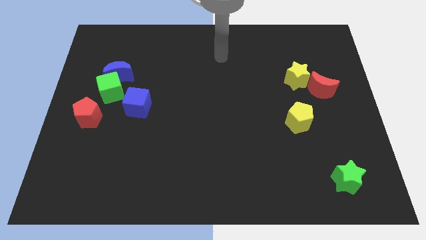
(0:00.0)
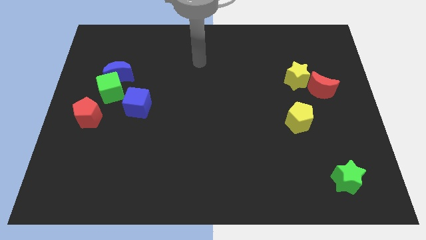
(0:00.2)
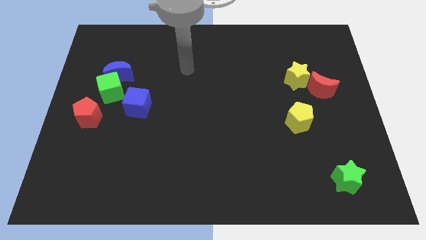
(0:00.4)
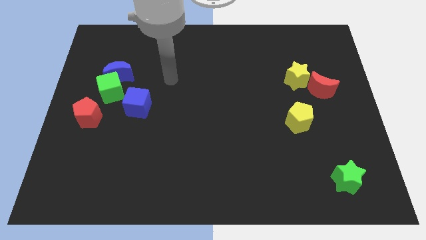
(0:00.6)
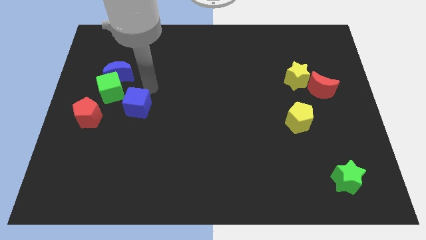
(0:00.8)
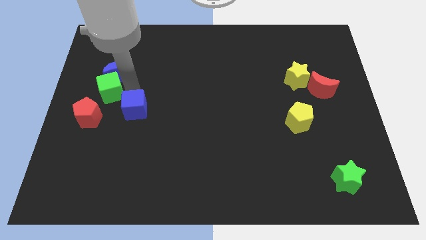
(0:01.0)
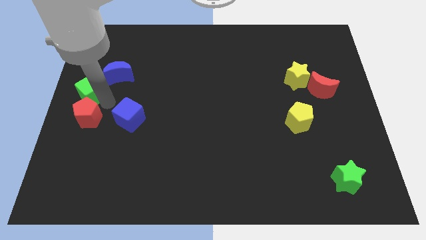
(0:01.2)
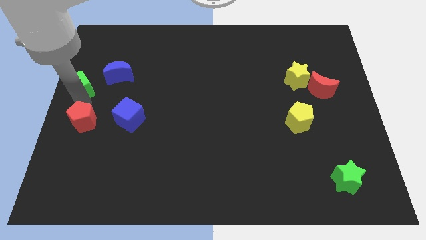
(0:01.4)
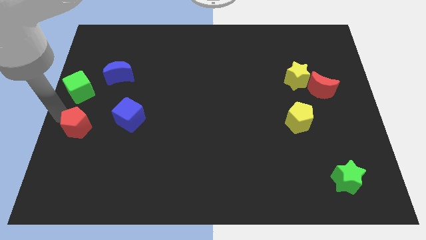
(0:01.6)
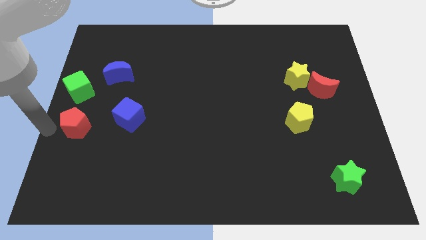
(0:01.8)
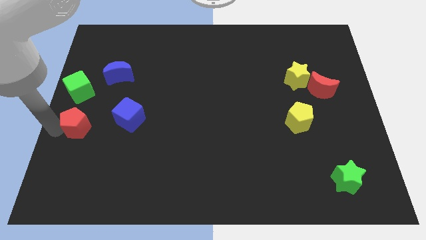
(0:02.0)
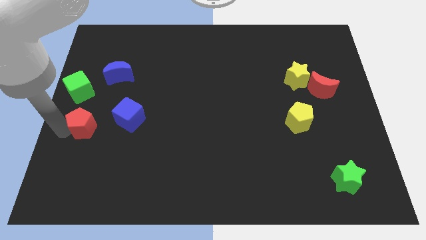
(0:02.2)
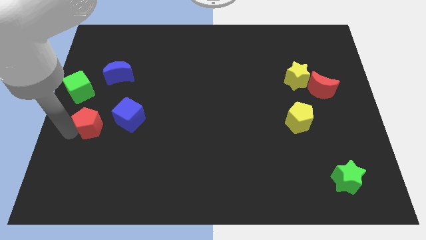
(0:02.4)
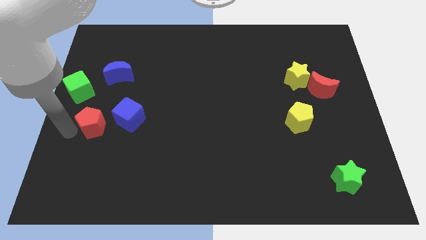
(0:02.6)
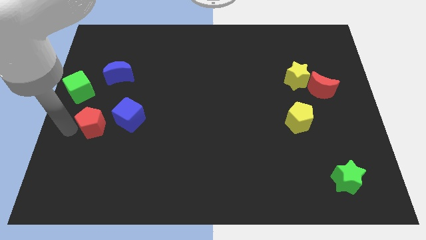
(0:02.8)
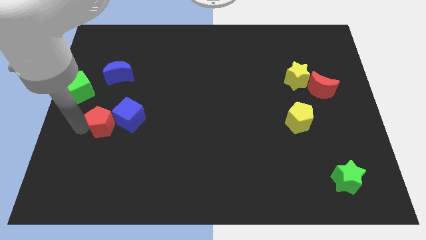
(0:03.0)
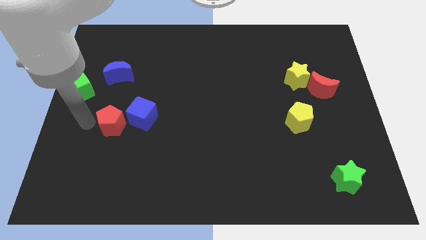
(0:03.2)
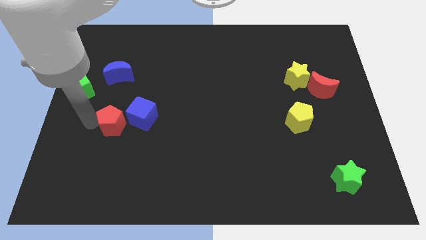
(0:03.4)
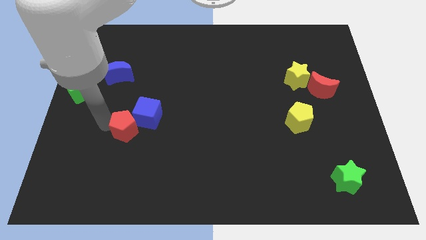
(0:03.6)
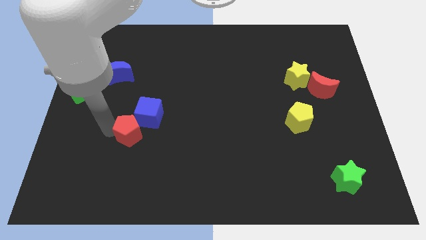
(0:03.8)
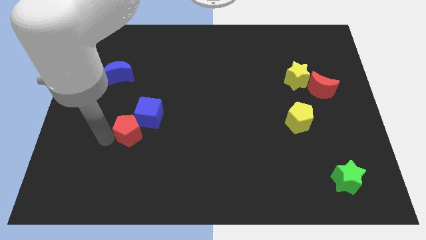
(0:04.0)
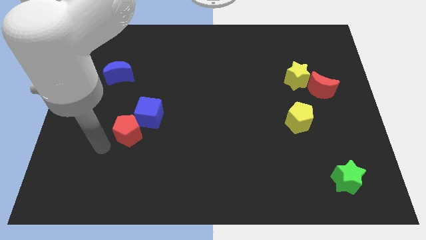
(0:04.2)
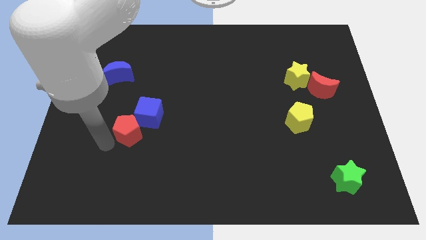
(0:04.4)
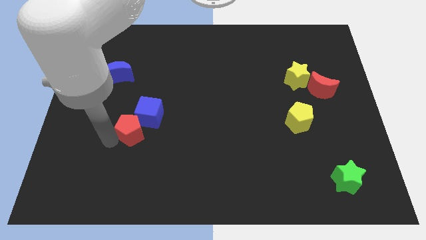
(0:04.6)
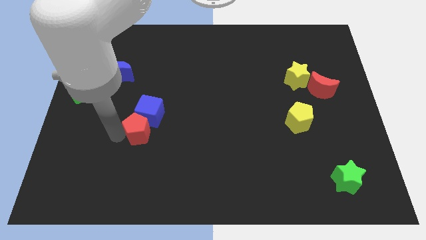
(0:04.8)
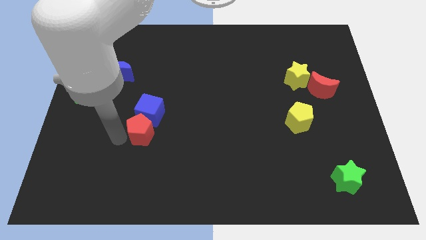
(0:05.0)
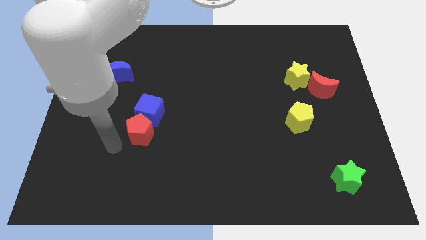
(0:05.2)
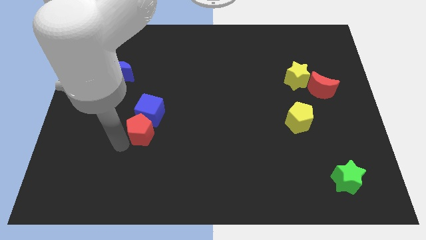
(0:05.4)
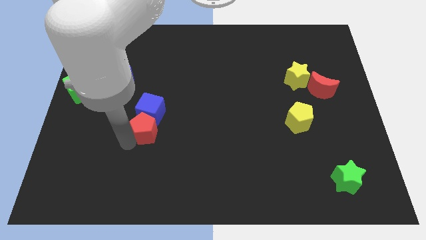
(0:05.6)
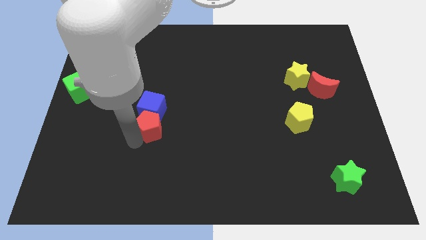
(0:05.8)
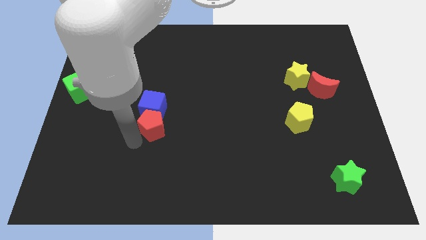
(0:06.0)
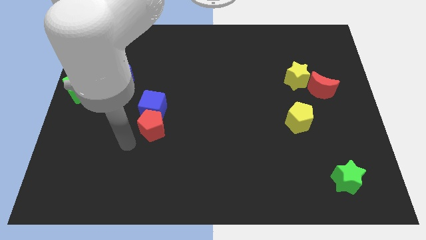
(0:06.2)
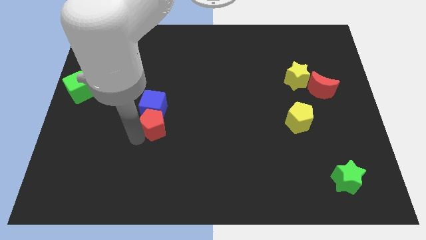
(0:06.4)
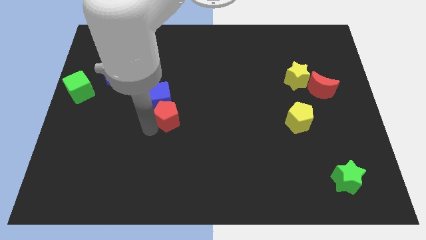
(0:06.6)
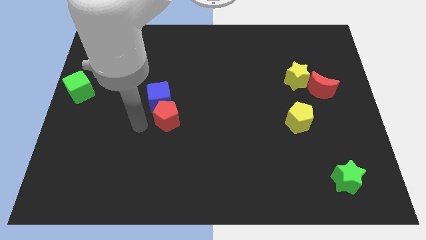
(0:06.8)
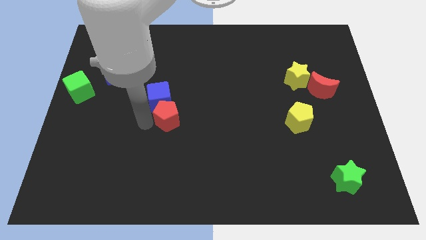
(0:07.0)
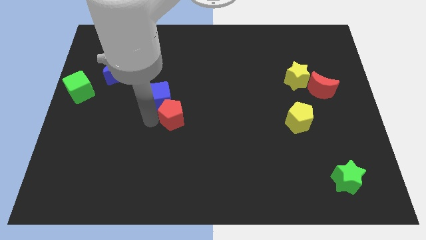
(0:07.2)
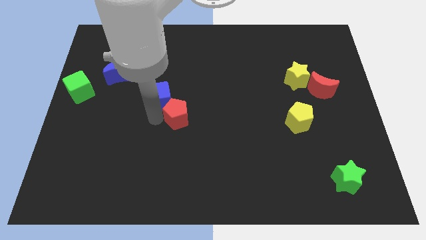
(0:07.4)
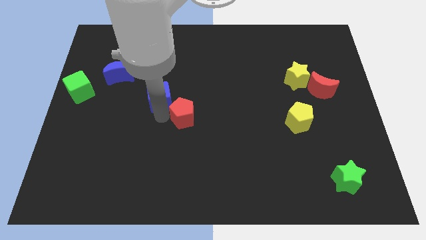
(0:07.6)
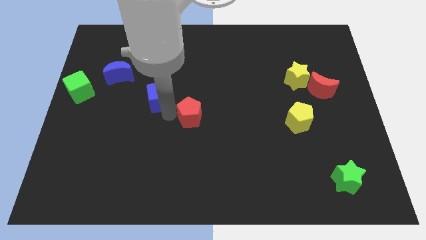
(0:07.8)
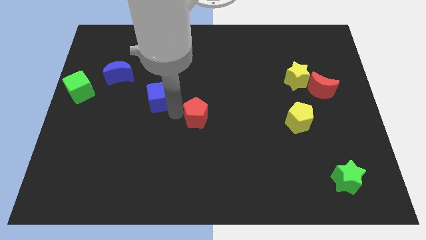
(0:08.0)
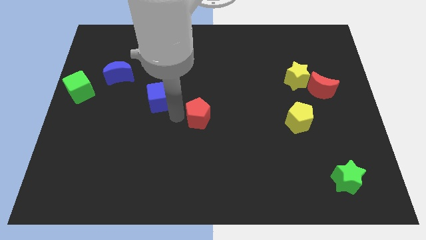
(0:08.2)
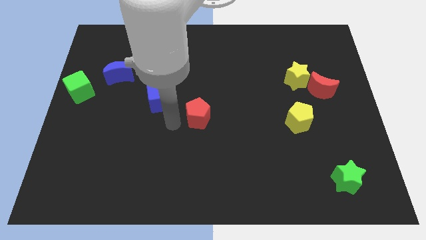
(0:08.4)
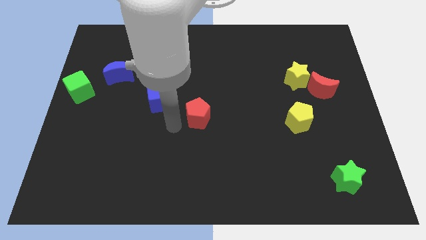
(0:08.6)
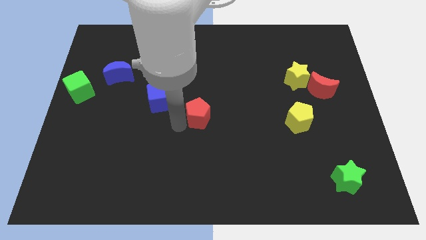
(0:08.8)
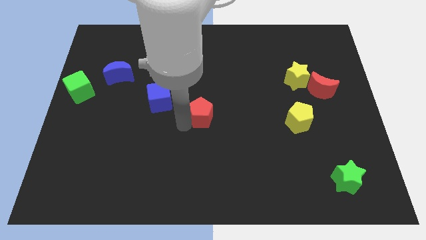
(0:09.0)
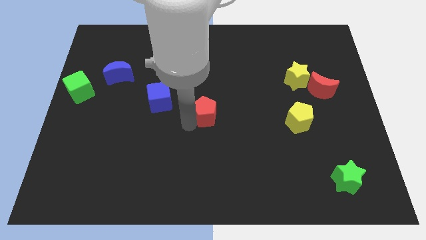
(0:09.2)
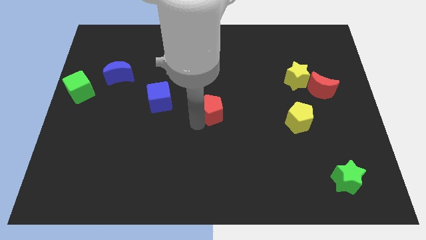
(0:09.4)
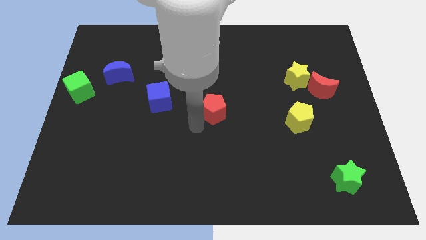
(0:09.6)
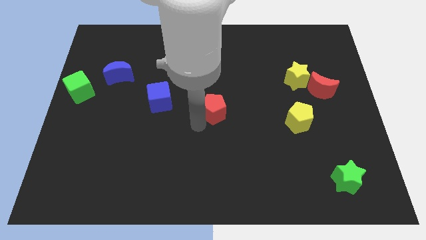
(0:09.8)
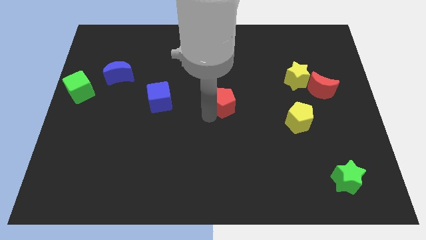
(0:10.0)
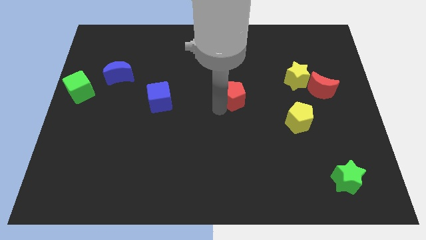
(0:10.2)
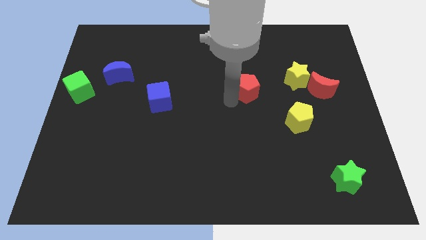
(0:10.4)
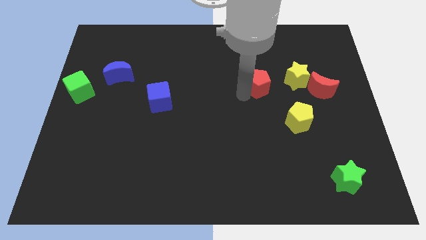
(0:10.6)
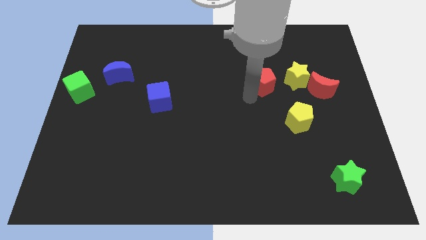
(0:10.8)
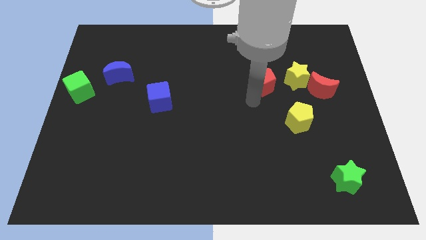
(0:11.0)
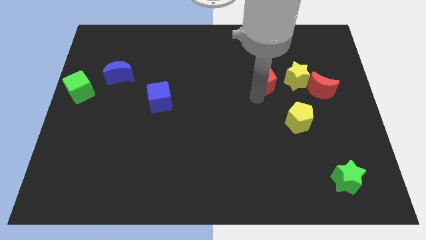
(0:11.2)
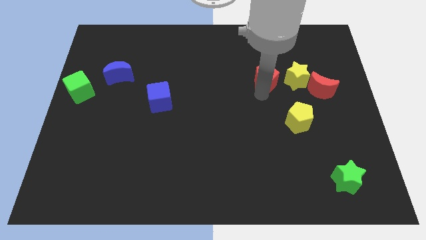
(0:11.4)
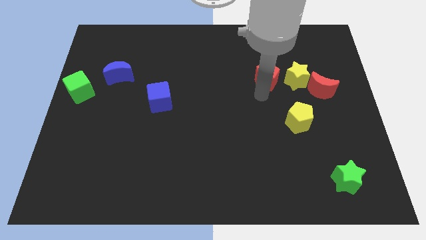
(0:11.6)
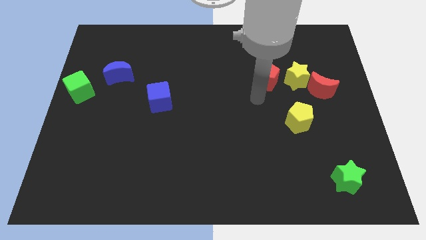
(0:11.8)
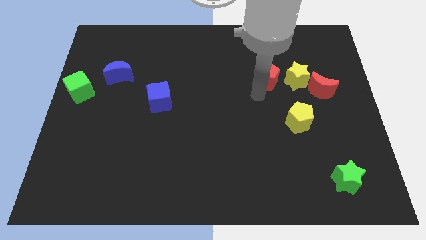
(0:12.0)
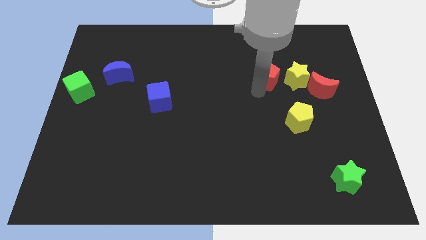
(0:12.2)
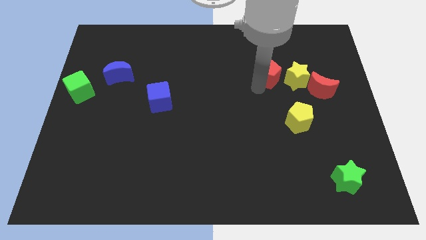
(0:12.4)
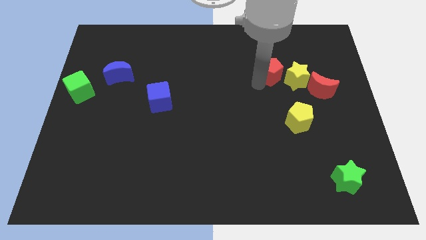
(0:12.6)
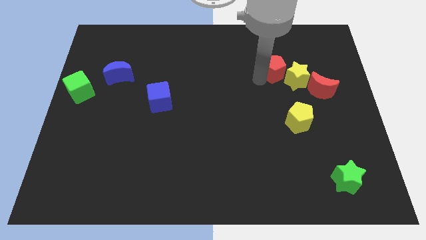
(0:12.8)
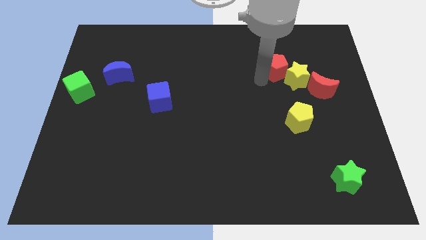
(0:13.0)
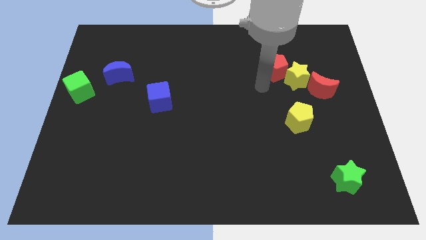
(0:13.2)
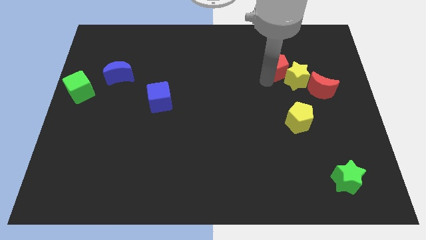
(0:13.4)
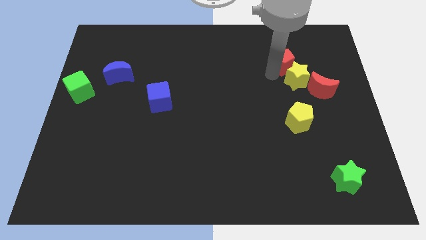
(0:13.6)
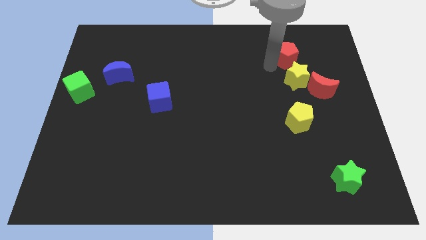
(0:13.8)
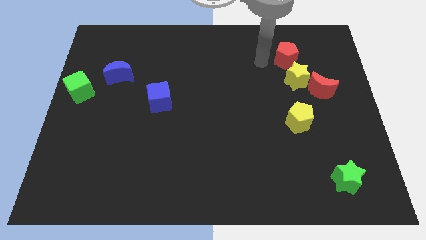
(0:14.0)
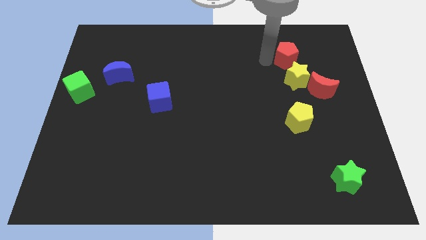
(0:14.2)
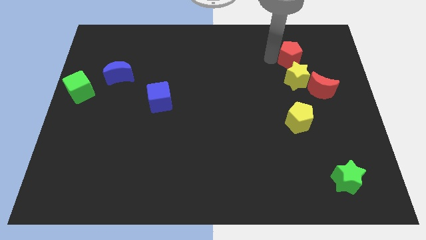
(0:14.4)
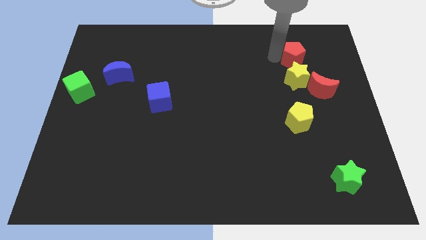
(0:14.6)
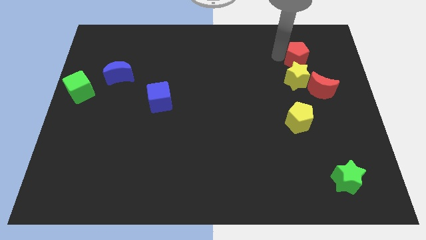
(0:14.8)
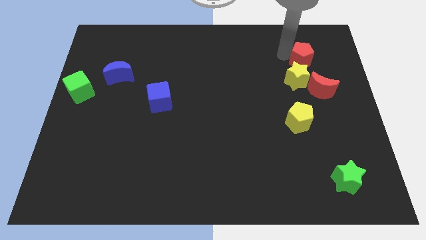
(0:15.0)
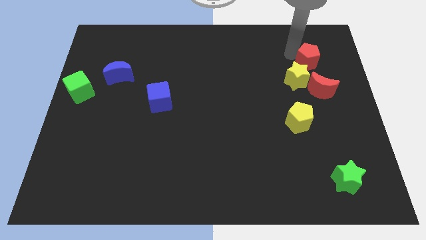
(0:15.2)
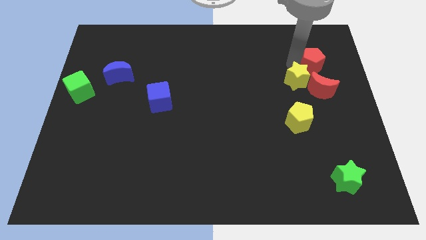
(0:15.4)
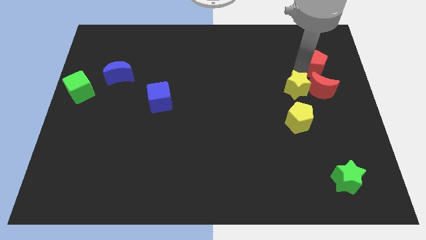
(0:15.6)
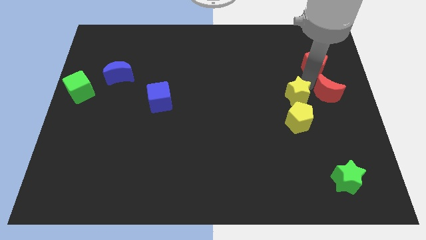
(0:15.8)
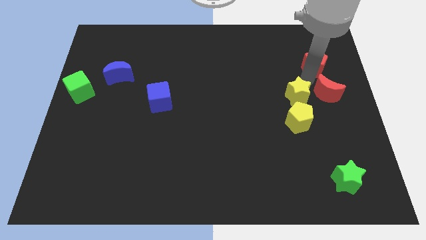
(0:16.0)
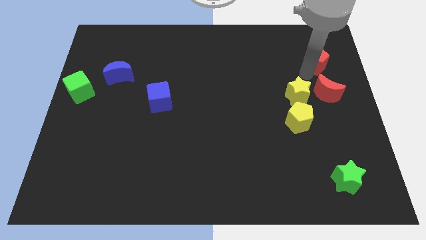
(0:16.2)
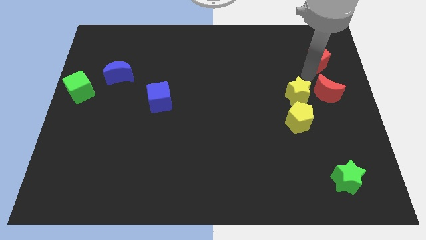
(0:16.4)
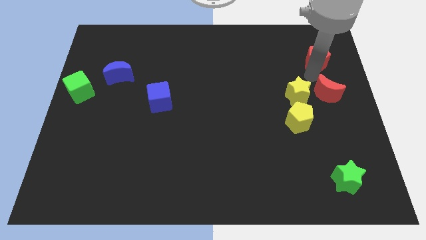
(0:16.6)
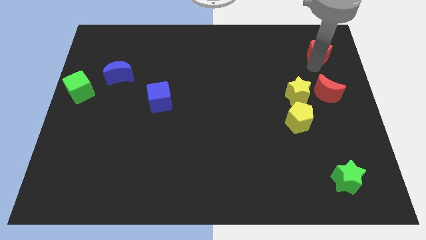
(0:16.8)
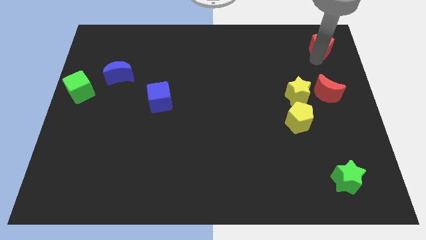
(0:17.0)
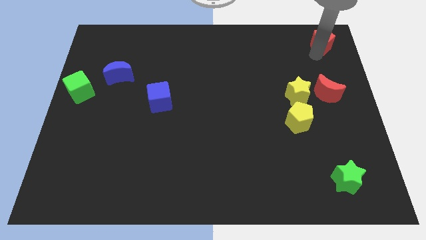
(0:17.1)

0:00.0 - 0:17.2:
push the red pentagon to the top right of the board
